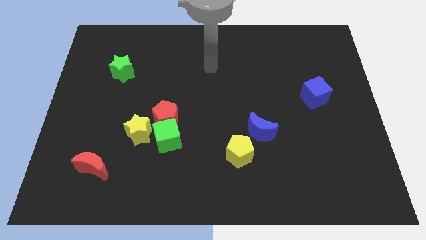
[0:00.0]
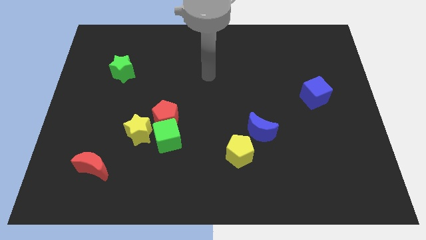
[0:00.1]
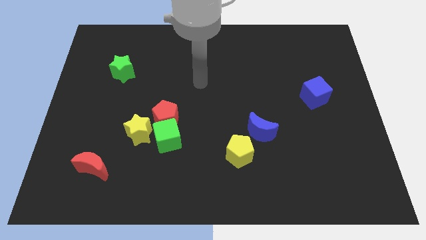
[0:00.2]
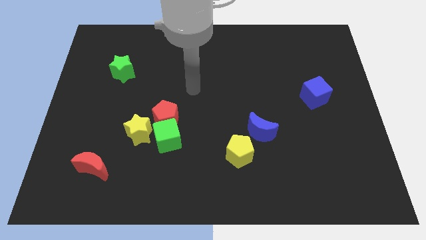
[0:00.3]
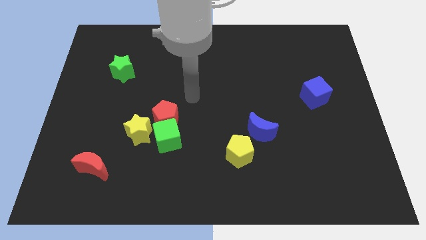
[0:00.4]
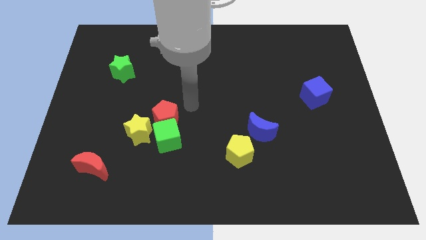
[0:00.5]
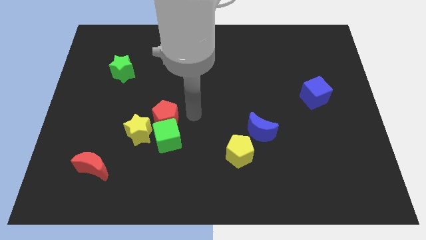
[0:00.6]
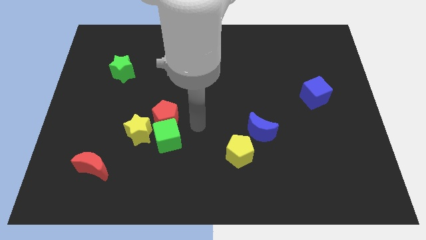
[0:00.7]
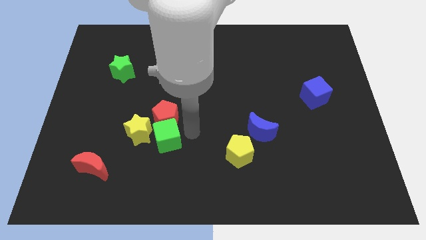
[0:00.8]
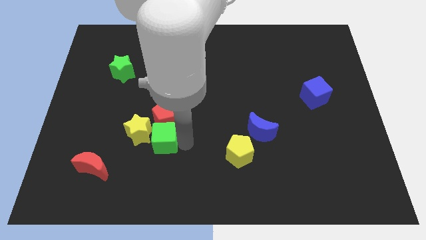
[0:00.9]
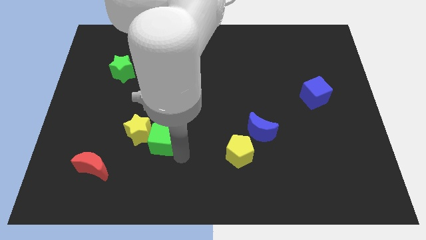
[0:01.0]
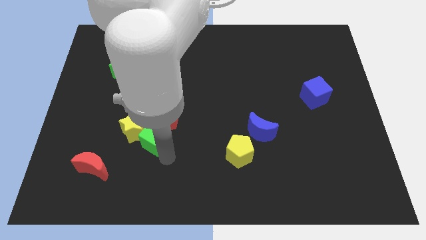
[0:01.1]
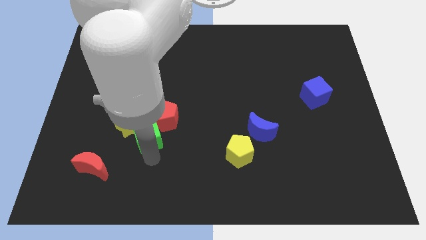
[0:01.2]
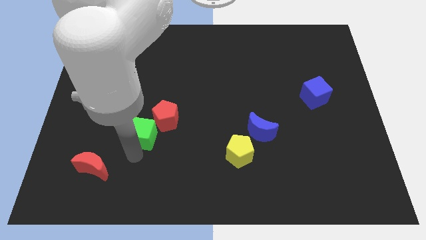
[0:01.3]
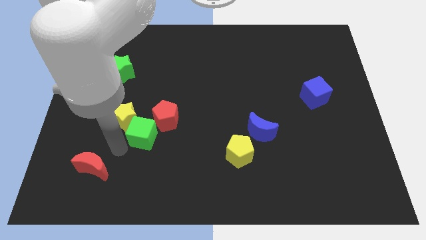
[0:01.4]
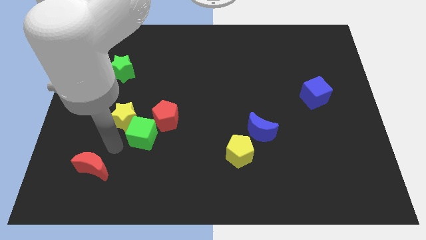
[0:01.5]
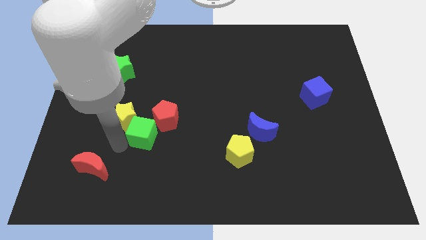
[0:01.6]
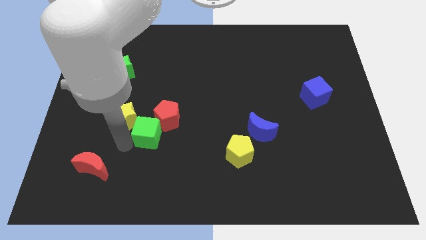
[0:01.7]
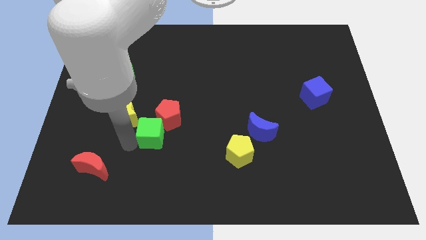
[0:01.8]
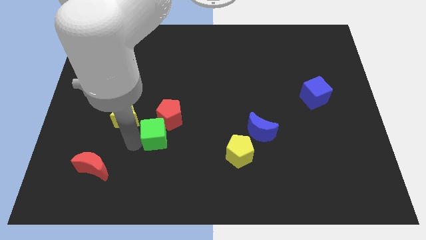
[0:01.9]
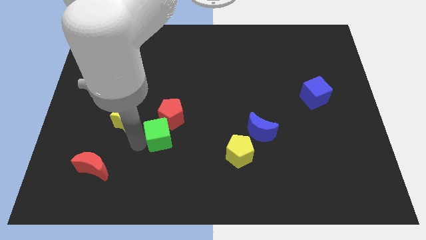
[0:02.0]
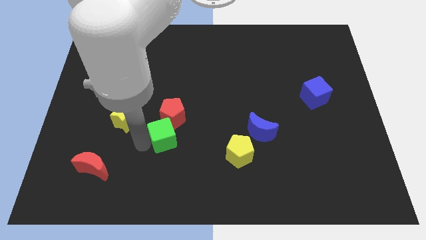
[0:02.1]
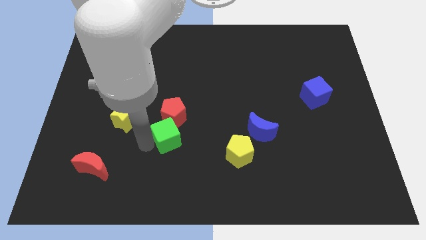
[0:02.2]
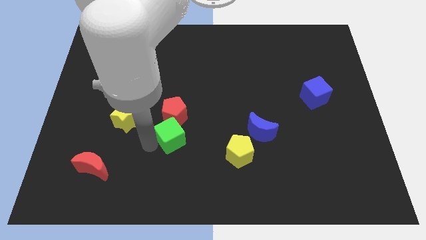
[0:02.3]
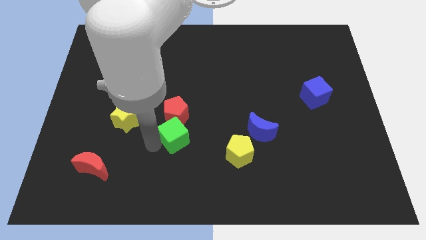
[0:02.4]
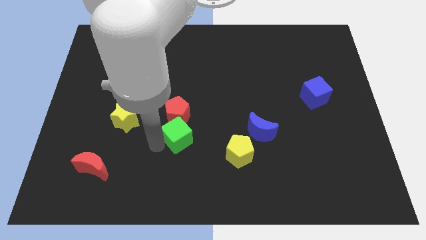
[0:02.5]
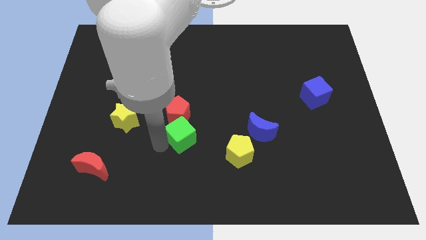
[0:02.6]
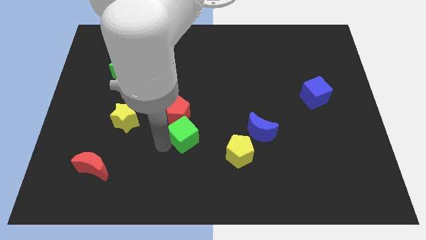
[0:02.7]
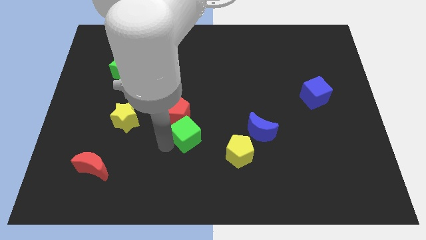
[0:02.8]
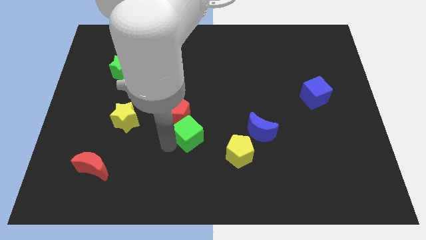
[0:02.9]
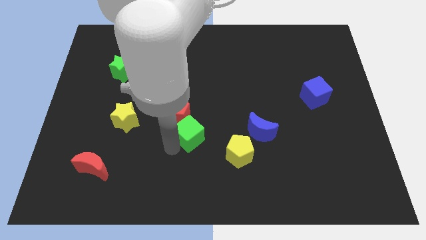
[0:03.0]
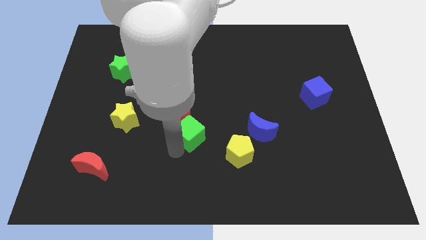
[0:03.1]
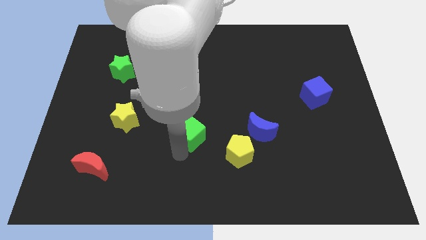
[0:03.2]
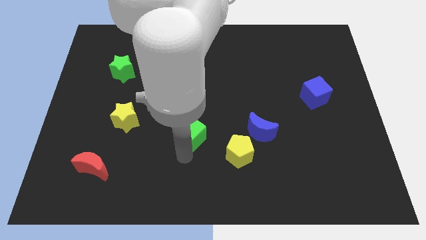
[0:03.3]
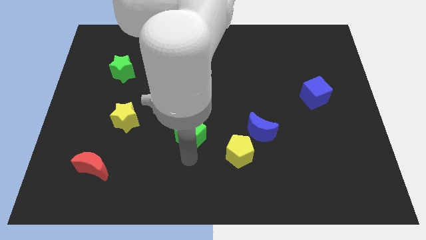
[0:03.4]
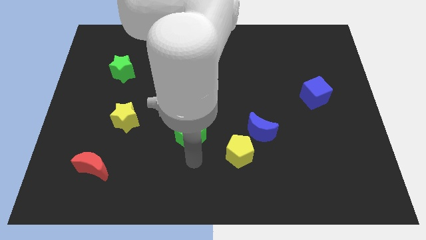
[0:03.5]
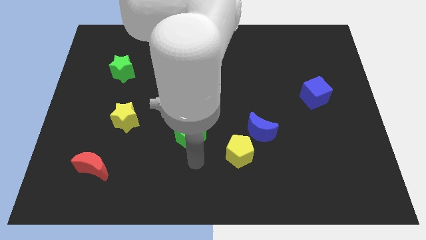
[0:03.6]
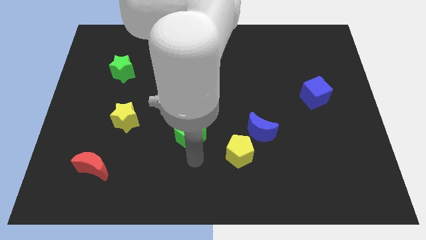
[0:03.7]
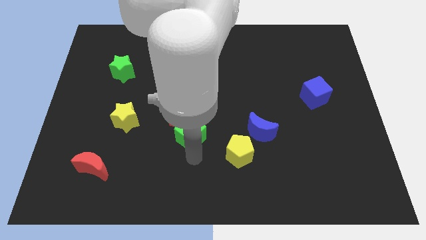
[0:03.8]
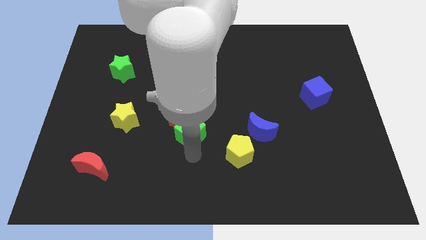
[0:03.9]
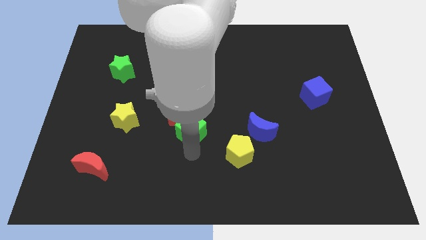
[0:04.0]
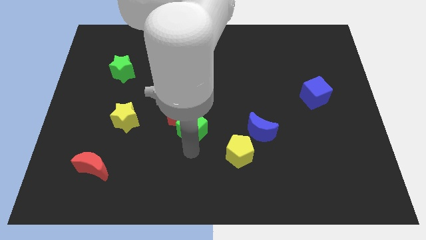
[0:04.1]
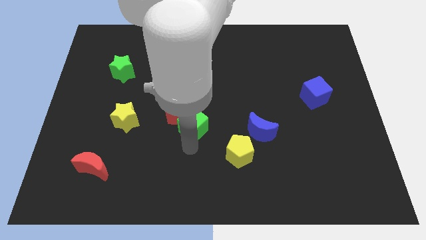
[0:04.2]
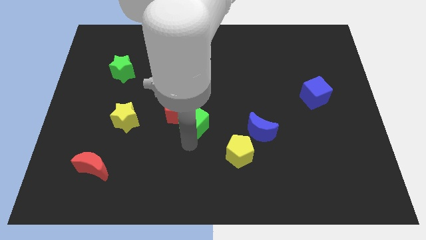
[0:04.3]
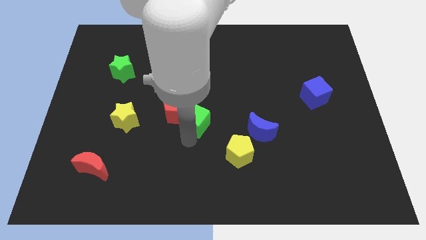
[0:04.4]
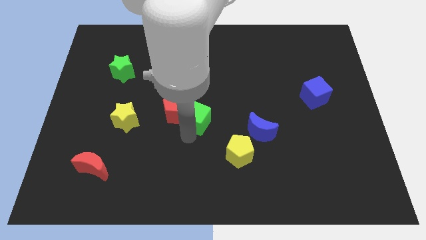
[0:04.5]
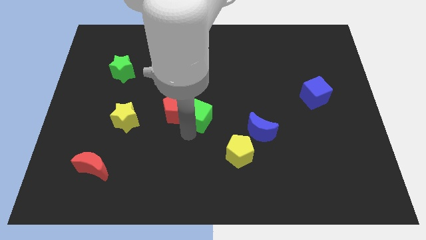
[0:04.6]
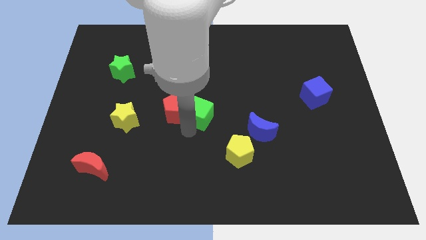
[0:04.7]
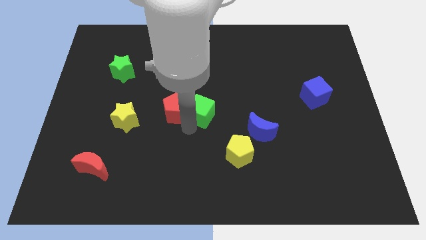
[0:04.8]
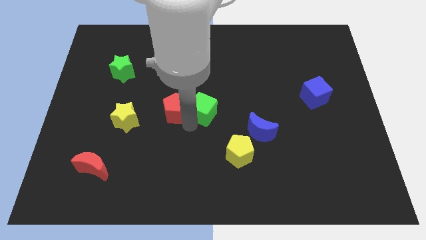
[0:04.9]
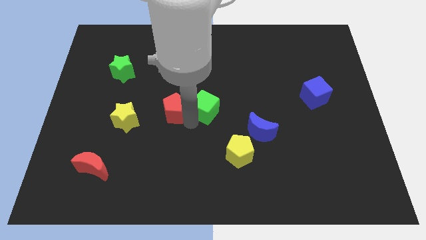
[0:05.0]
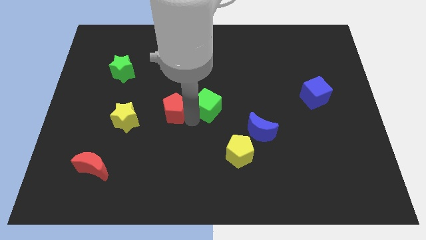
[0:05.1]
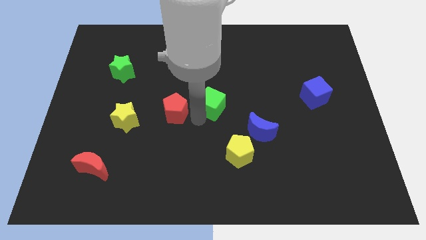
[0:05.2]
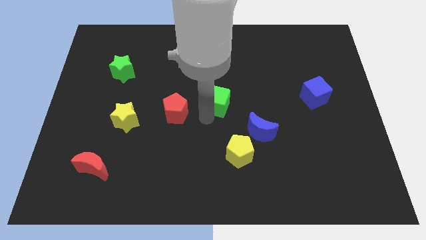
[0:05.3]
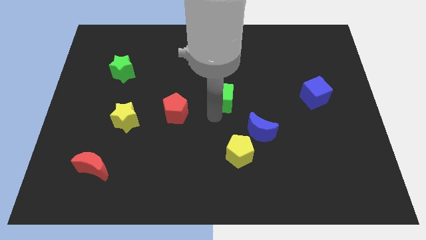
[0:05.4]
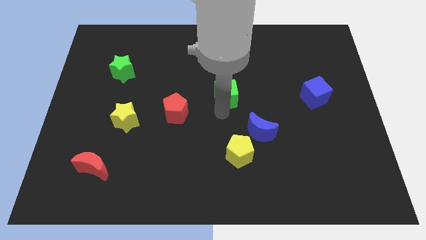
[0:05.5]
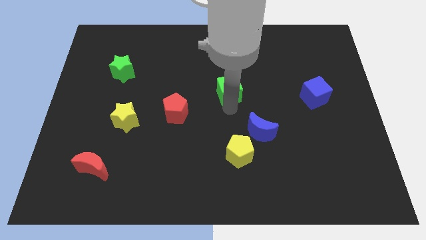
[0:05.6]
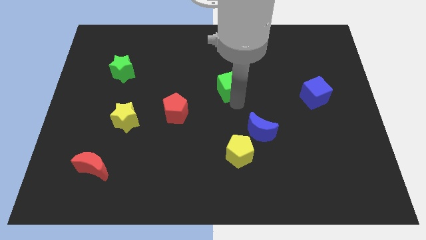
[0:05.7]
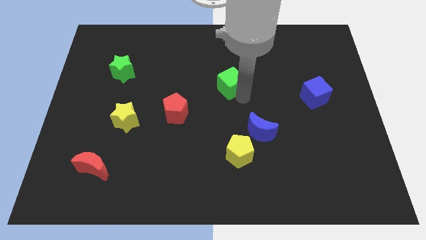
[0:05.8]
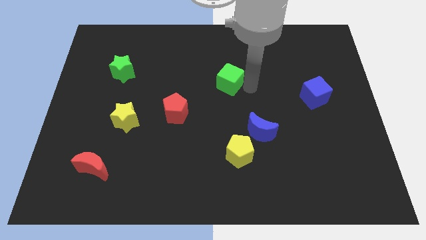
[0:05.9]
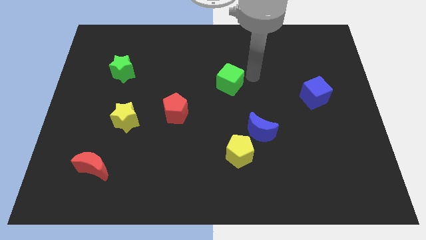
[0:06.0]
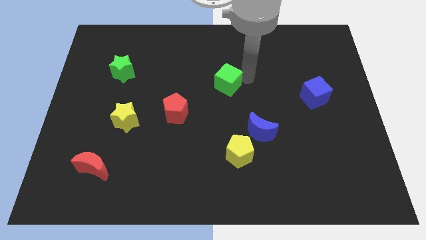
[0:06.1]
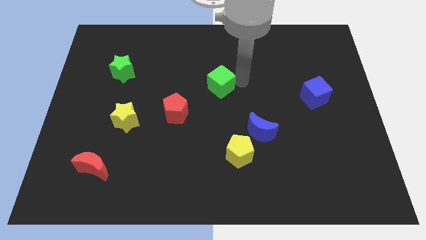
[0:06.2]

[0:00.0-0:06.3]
slightly move the green cube up

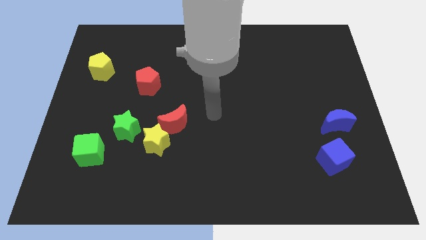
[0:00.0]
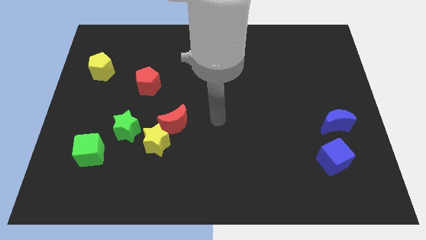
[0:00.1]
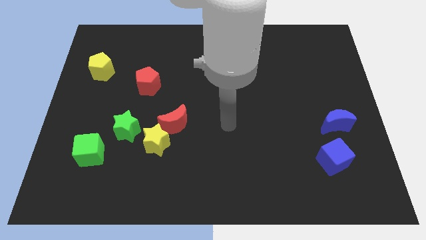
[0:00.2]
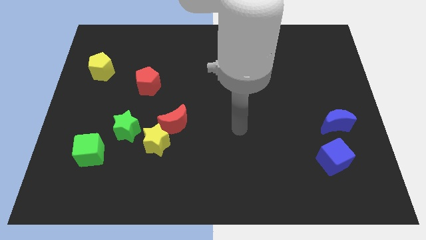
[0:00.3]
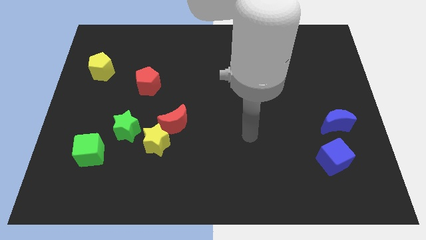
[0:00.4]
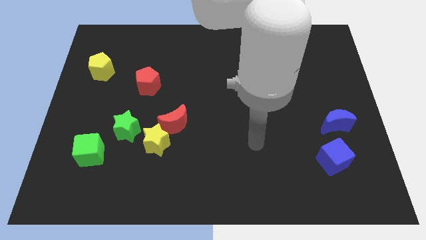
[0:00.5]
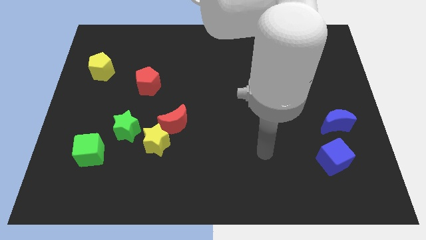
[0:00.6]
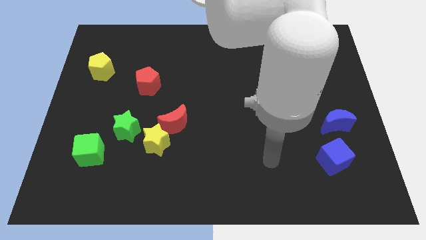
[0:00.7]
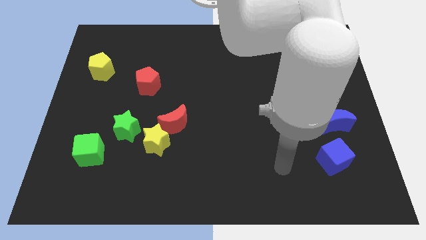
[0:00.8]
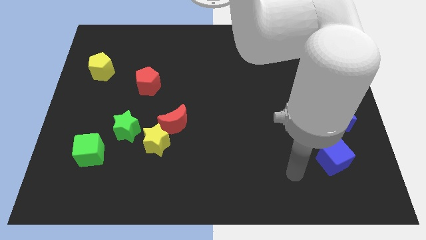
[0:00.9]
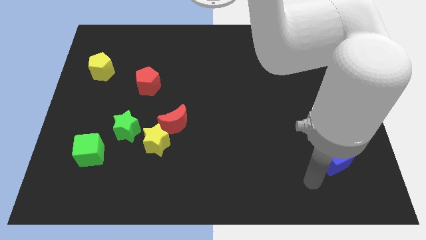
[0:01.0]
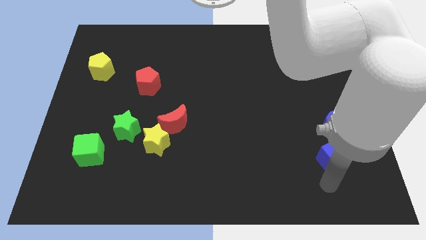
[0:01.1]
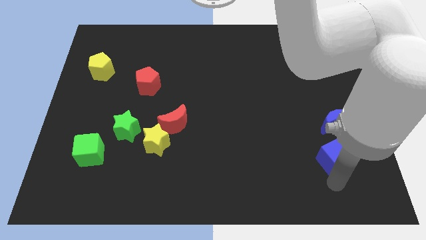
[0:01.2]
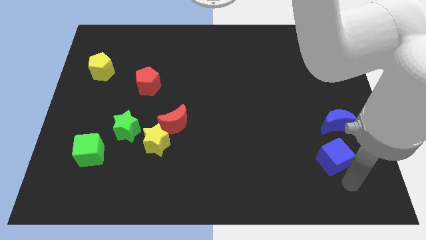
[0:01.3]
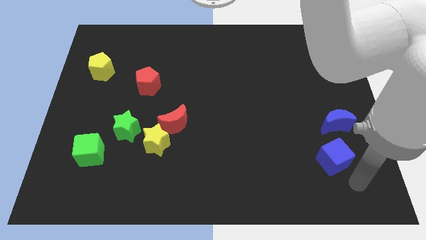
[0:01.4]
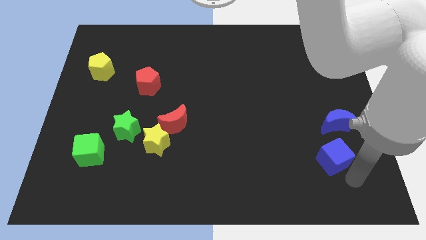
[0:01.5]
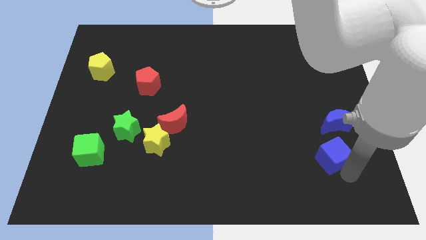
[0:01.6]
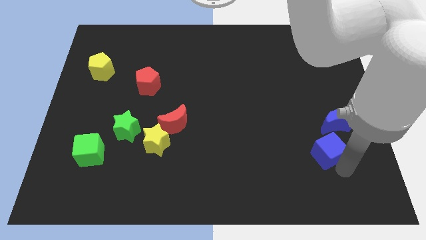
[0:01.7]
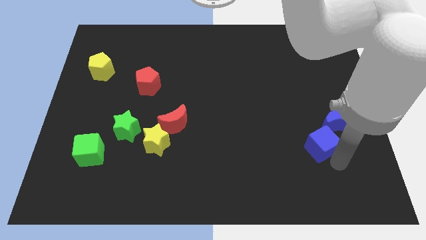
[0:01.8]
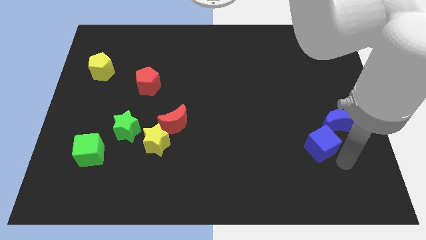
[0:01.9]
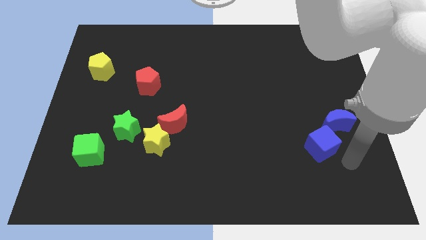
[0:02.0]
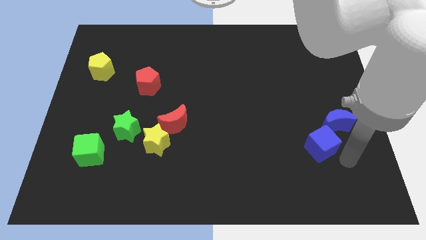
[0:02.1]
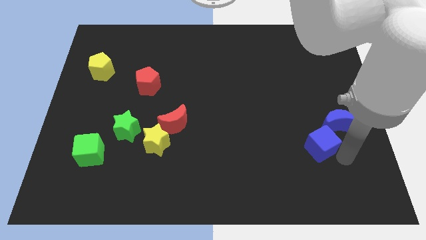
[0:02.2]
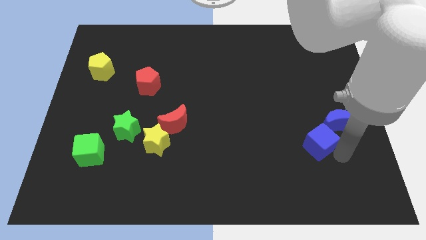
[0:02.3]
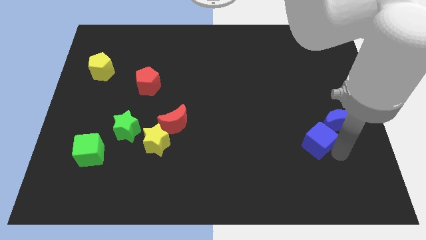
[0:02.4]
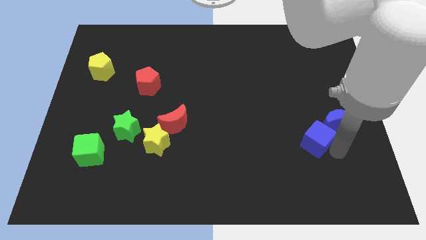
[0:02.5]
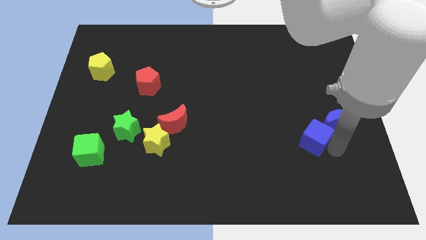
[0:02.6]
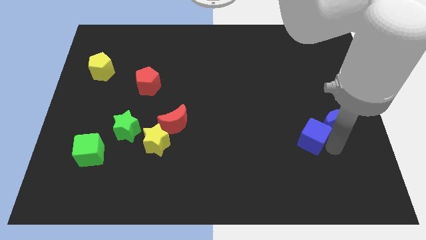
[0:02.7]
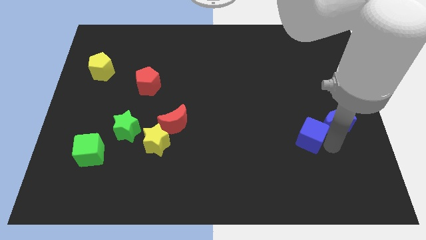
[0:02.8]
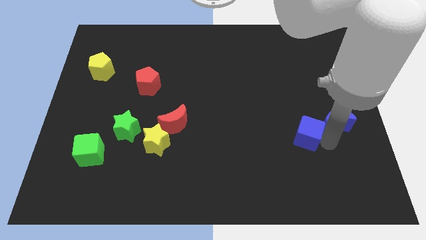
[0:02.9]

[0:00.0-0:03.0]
move the blue cube a little up and to the left diagonally
